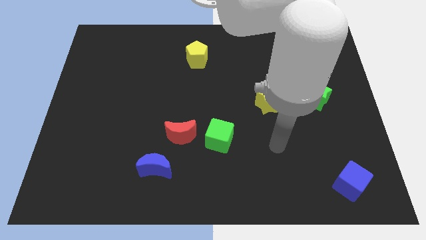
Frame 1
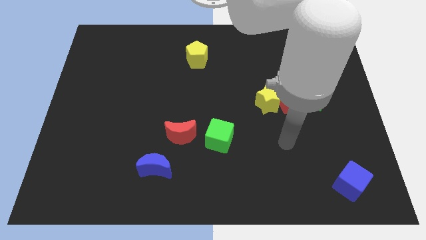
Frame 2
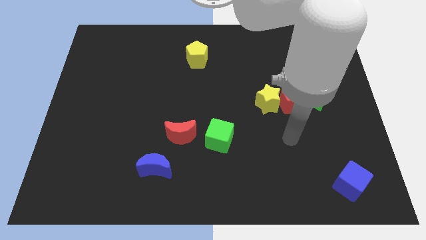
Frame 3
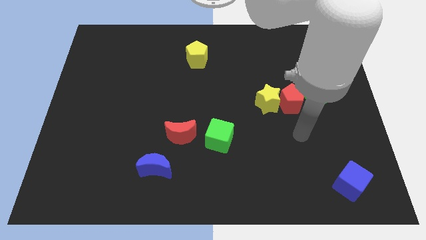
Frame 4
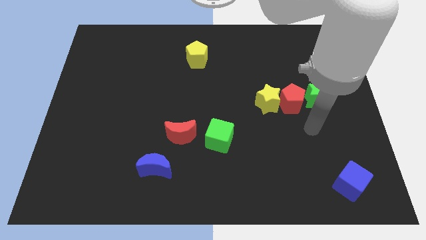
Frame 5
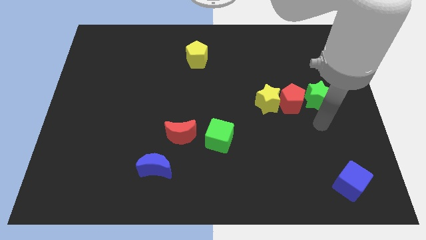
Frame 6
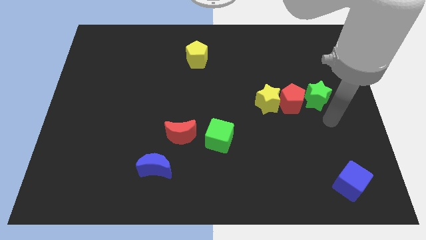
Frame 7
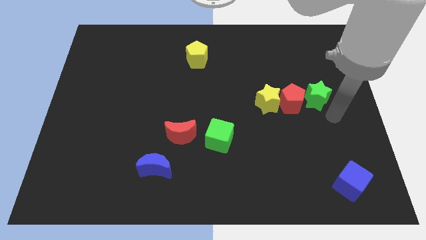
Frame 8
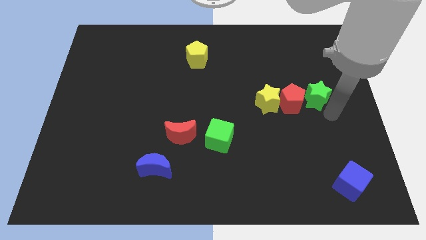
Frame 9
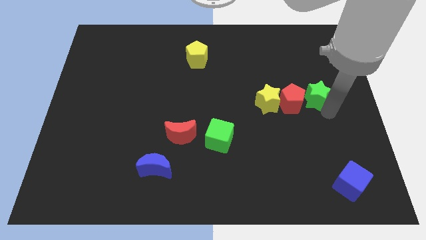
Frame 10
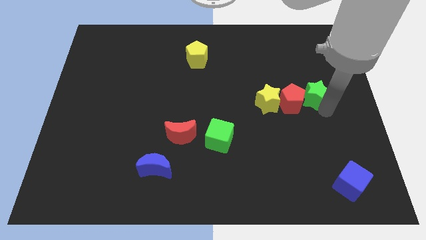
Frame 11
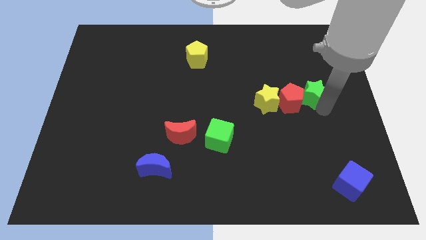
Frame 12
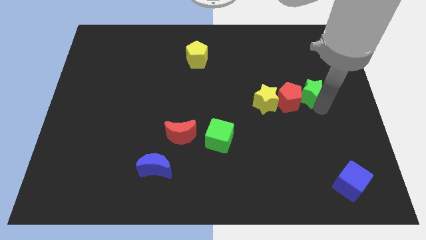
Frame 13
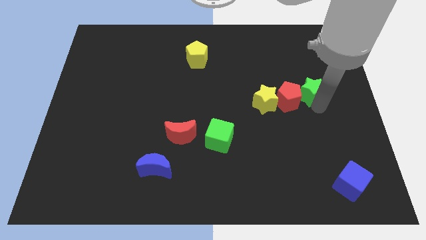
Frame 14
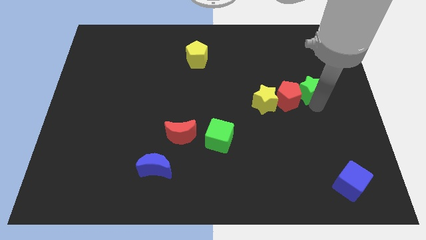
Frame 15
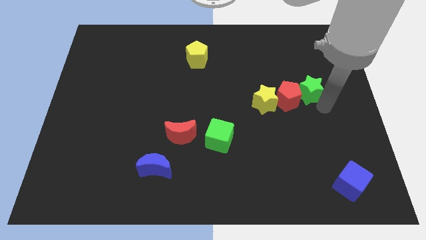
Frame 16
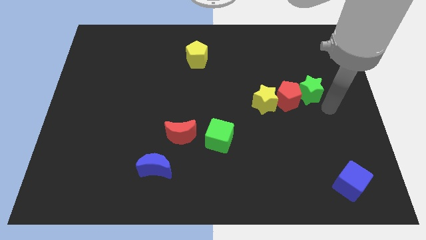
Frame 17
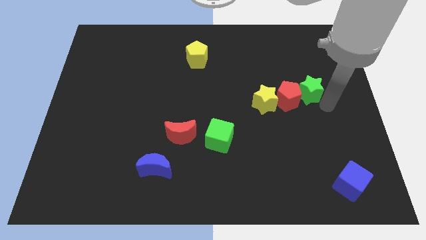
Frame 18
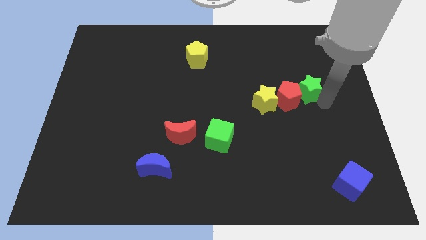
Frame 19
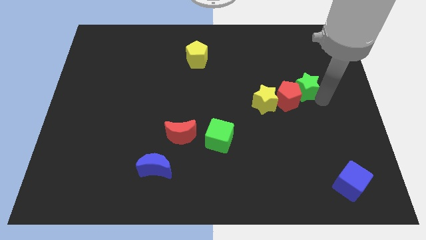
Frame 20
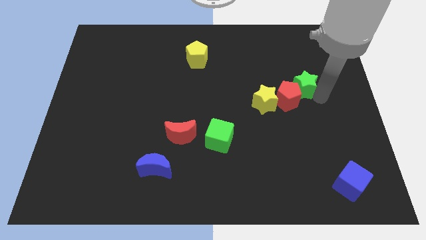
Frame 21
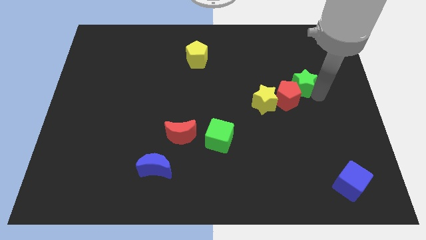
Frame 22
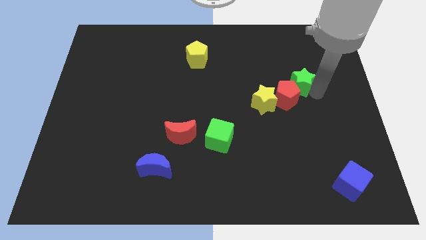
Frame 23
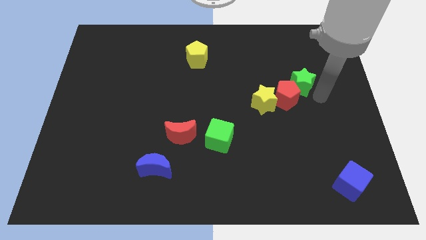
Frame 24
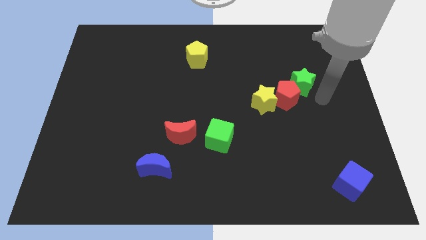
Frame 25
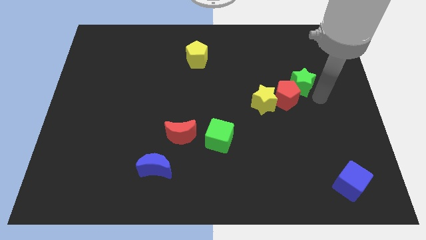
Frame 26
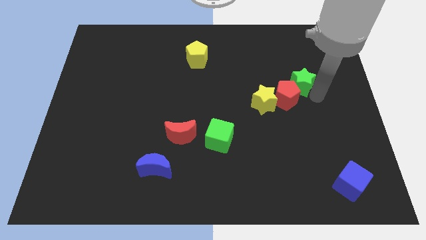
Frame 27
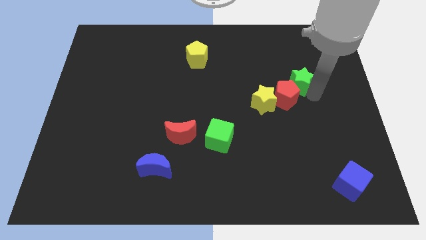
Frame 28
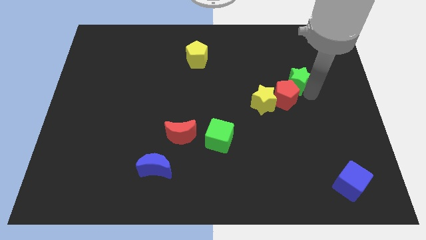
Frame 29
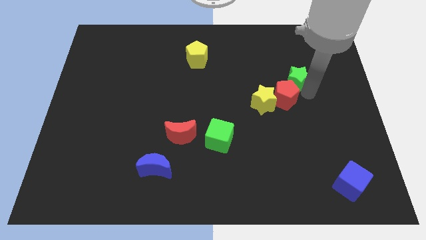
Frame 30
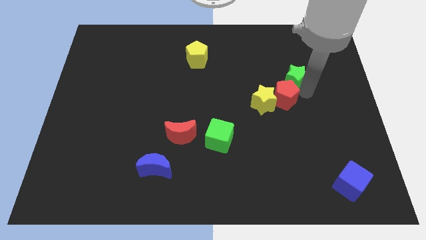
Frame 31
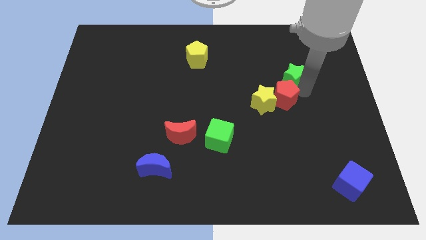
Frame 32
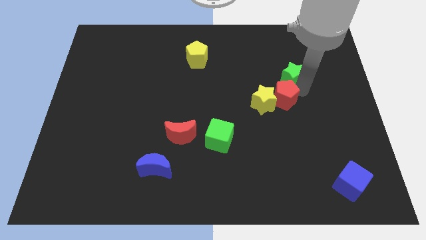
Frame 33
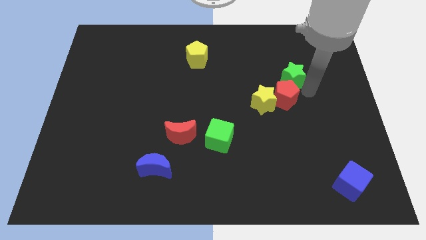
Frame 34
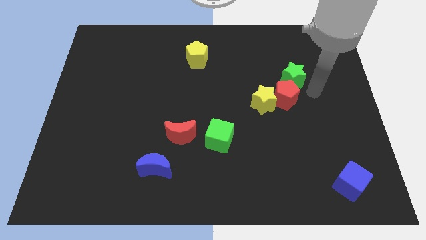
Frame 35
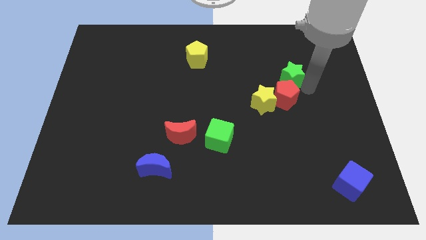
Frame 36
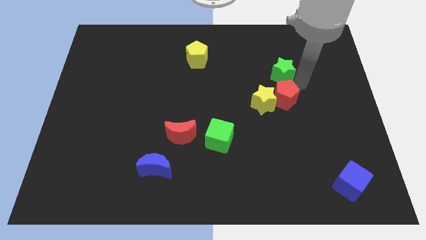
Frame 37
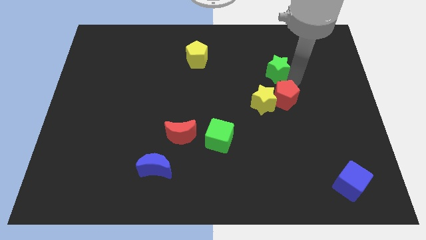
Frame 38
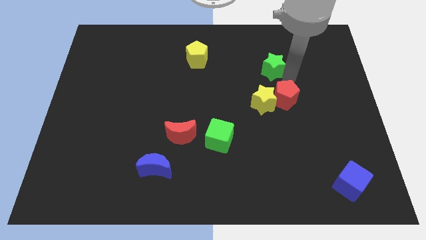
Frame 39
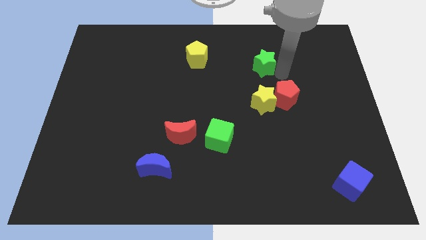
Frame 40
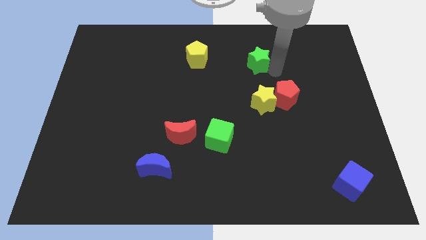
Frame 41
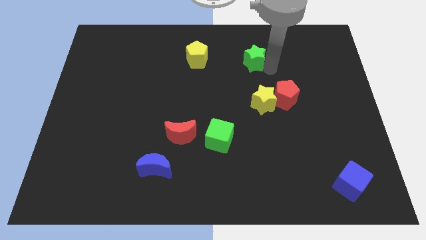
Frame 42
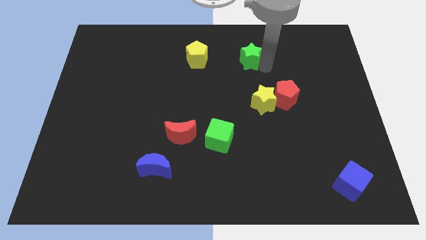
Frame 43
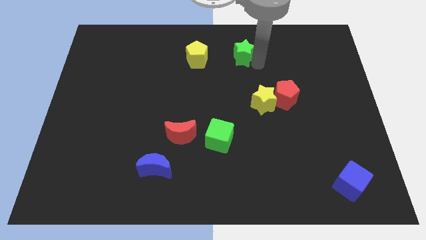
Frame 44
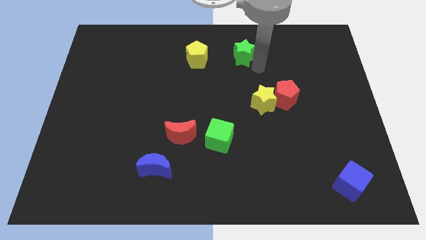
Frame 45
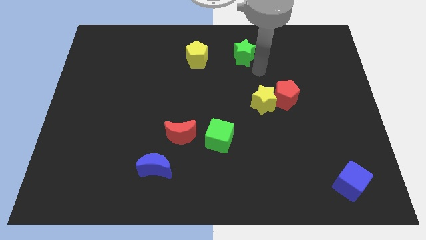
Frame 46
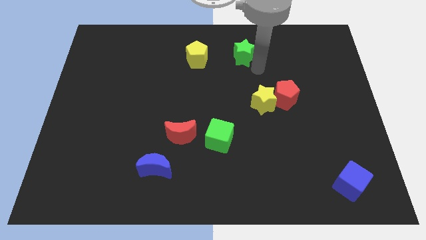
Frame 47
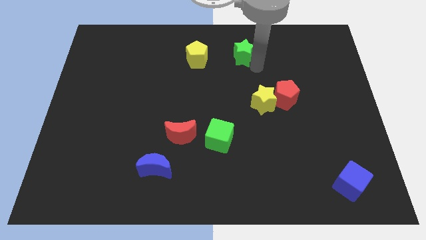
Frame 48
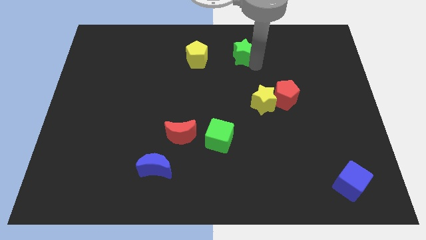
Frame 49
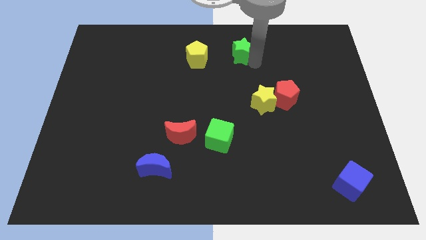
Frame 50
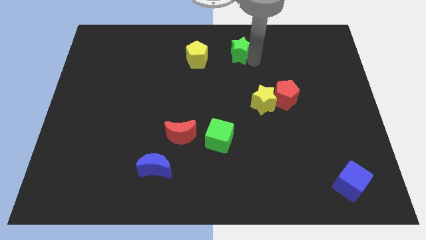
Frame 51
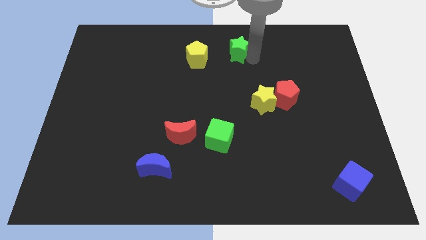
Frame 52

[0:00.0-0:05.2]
move the green star to the top side

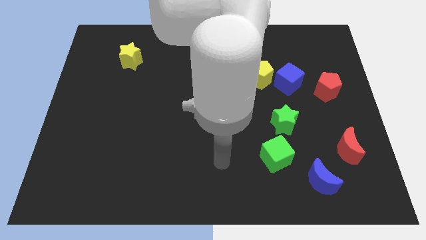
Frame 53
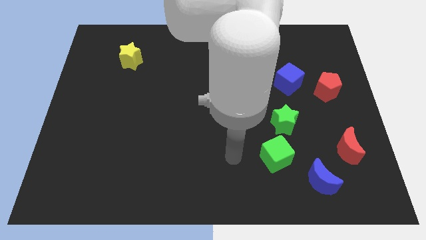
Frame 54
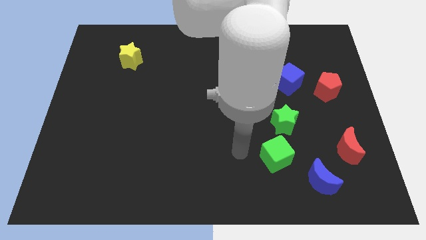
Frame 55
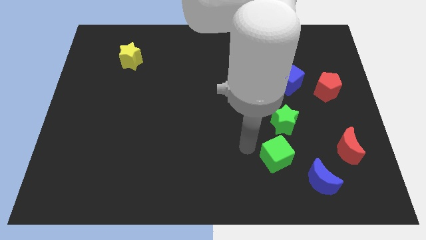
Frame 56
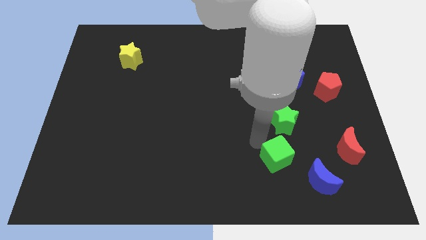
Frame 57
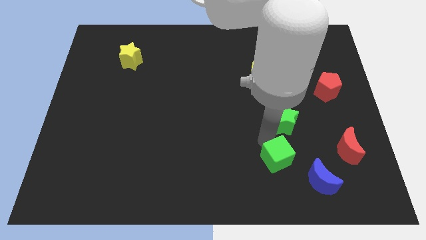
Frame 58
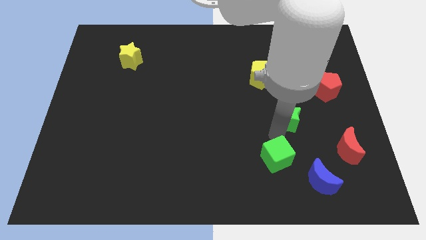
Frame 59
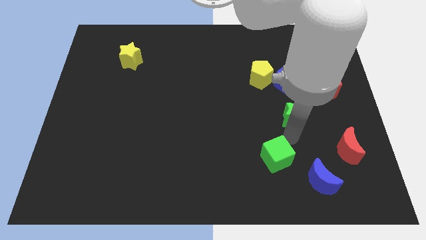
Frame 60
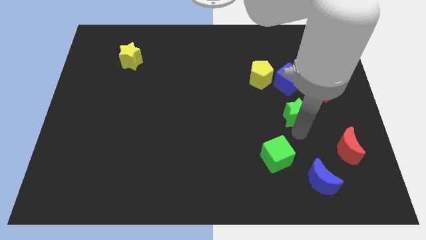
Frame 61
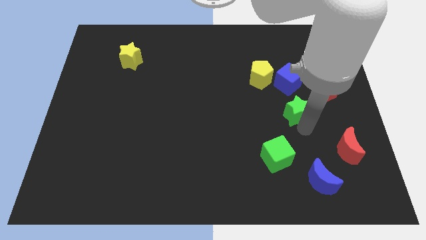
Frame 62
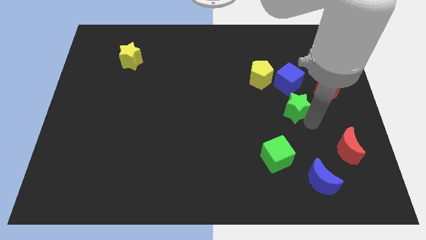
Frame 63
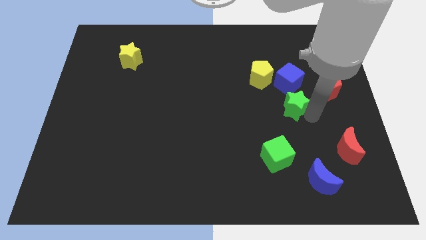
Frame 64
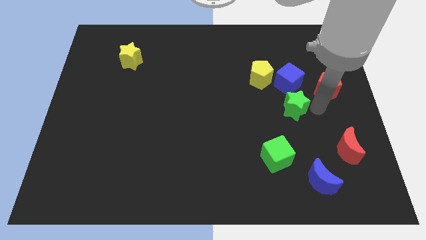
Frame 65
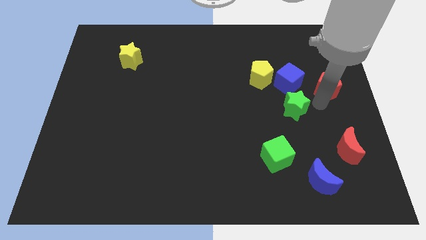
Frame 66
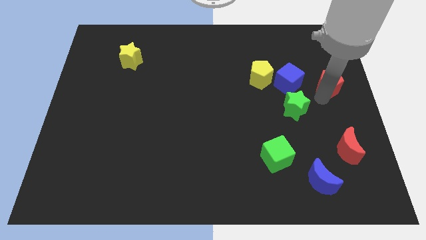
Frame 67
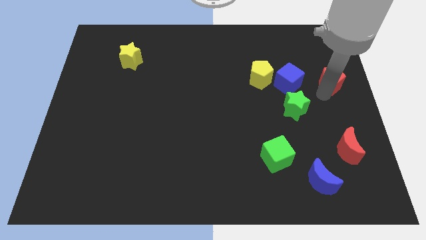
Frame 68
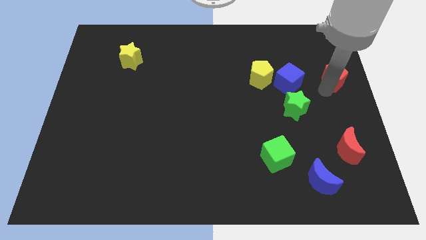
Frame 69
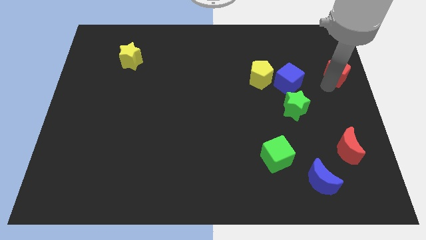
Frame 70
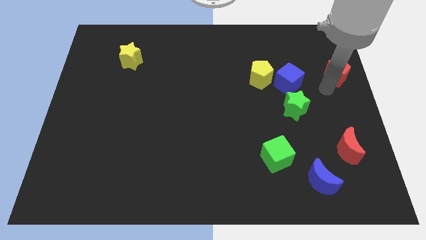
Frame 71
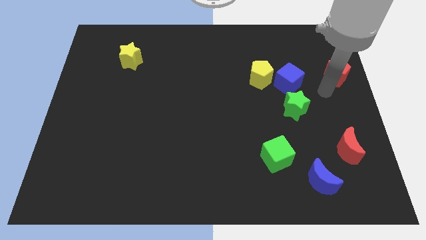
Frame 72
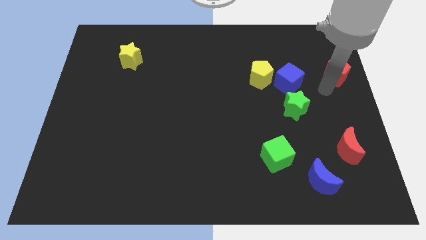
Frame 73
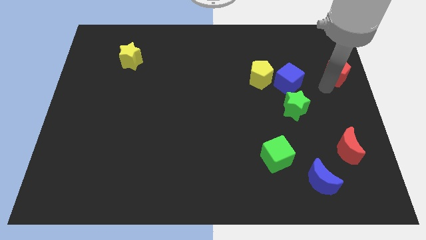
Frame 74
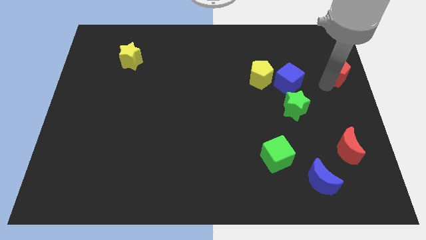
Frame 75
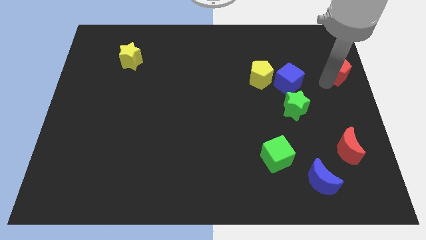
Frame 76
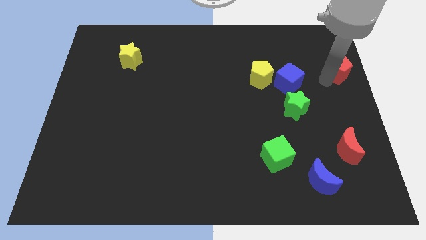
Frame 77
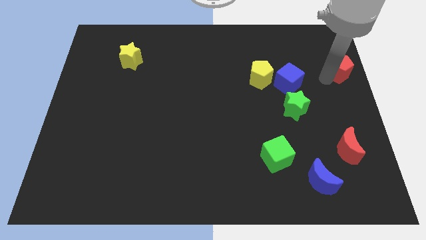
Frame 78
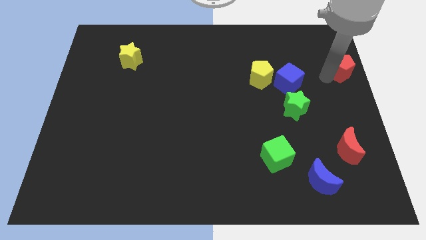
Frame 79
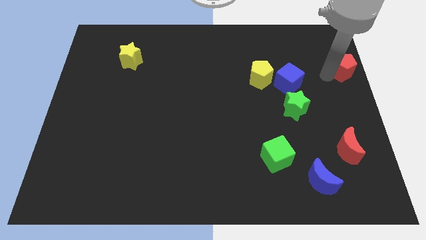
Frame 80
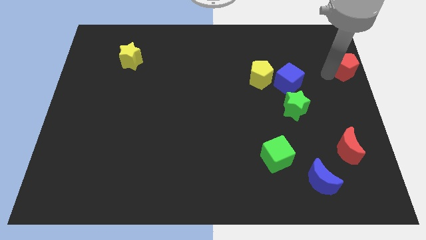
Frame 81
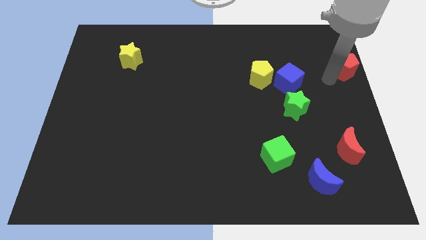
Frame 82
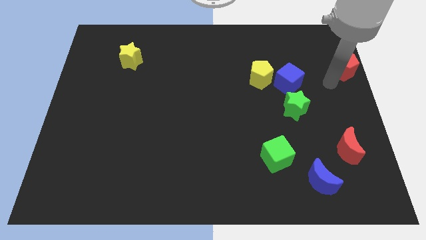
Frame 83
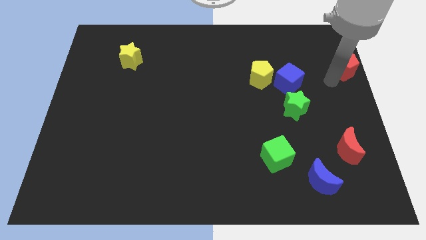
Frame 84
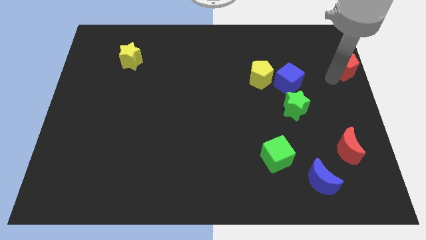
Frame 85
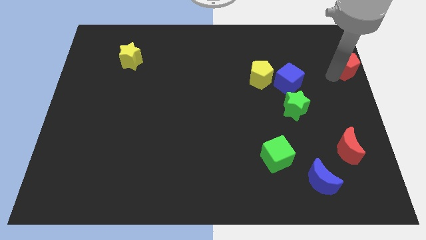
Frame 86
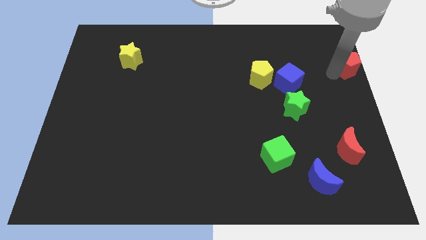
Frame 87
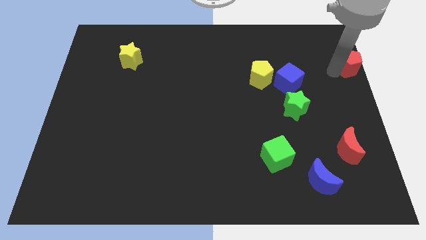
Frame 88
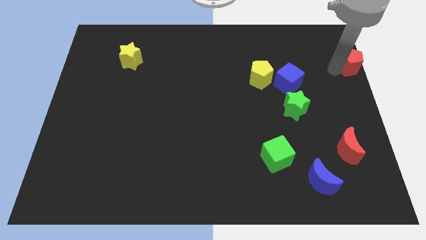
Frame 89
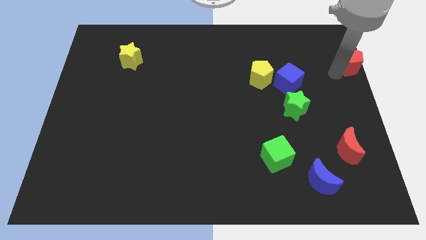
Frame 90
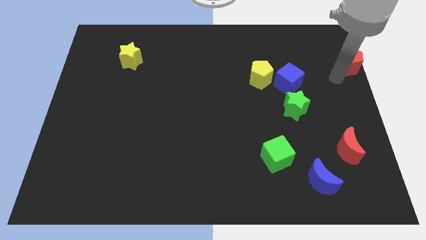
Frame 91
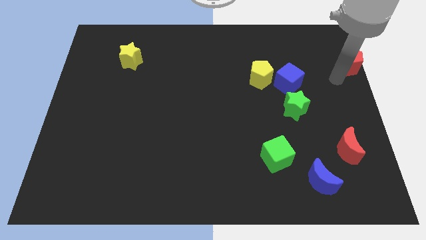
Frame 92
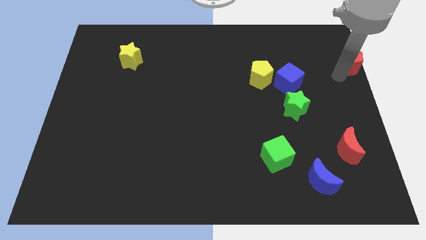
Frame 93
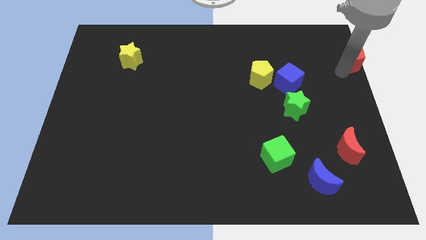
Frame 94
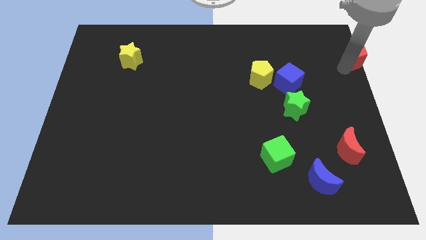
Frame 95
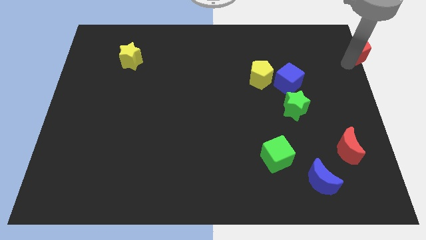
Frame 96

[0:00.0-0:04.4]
move the red pentagon to the upper right corner
